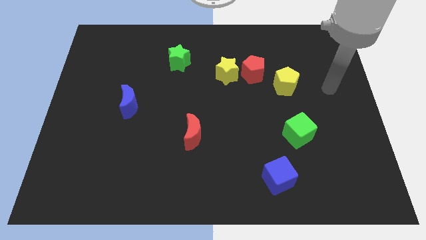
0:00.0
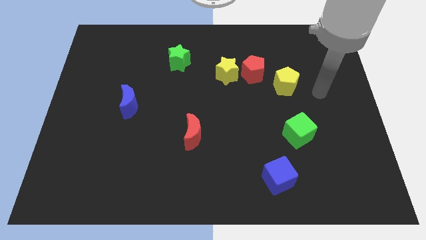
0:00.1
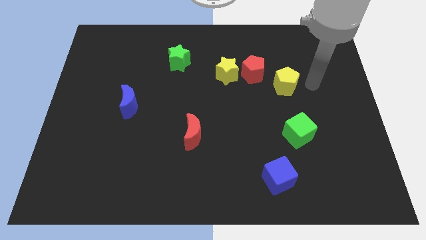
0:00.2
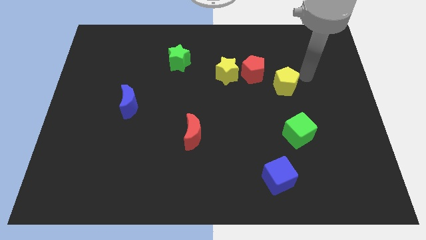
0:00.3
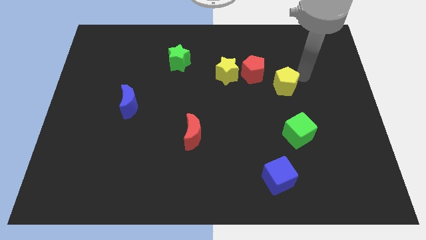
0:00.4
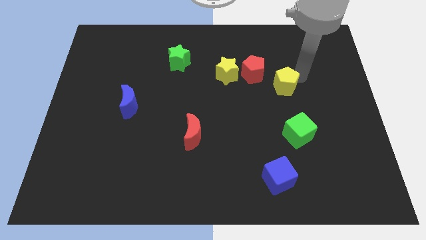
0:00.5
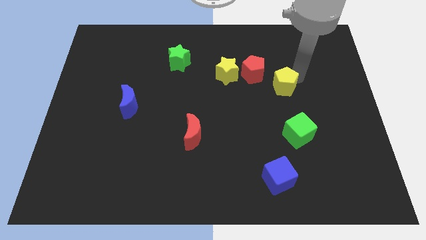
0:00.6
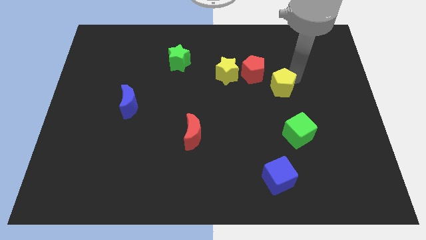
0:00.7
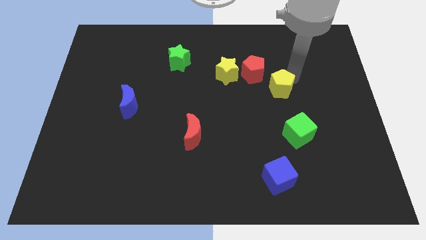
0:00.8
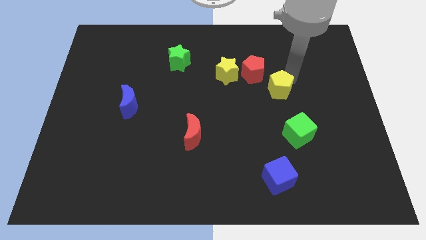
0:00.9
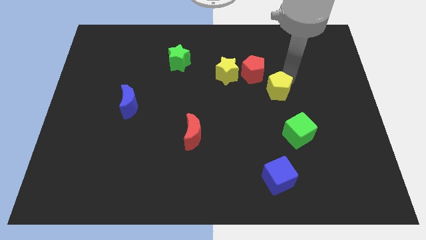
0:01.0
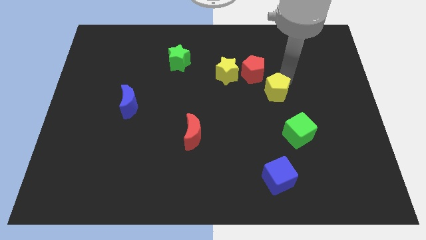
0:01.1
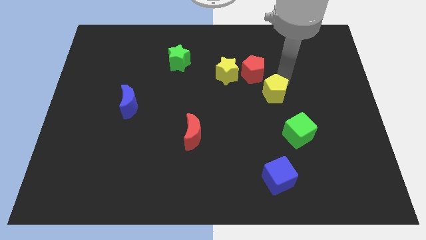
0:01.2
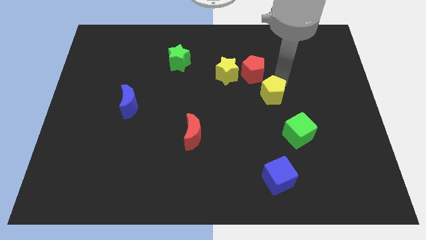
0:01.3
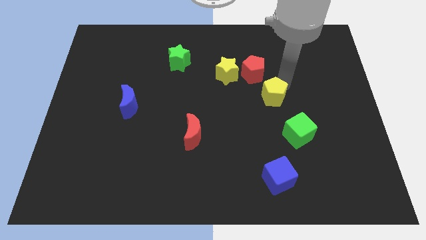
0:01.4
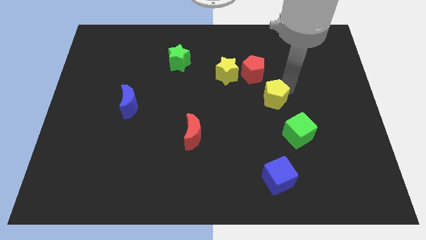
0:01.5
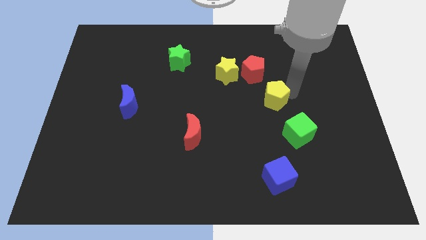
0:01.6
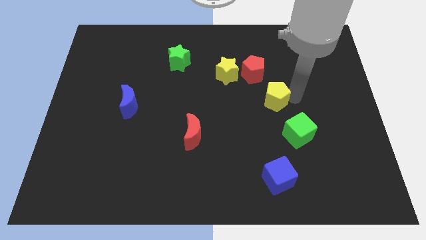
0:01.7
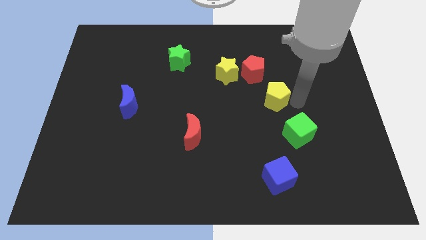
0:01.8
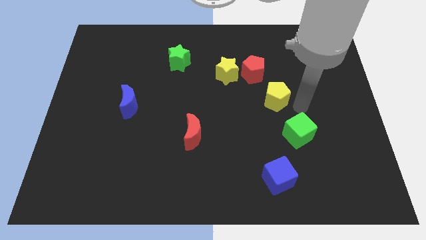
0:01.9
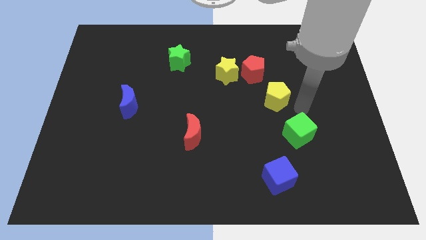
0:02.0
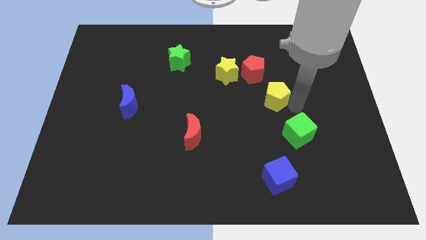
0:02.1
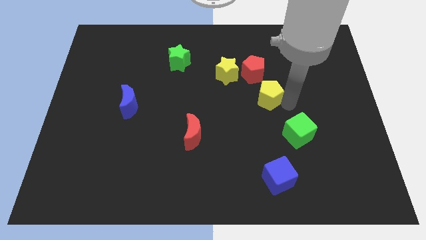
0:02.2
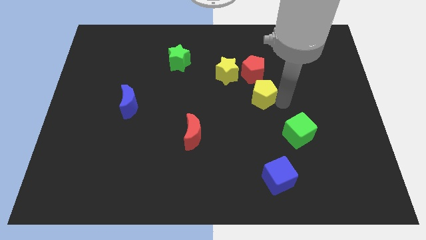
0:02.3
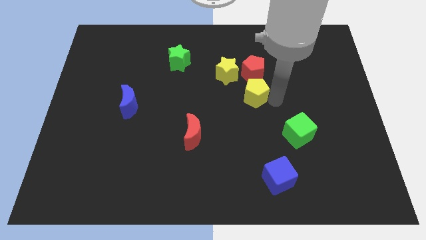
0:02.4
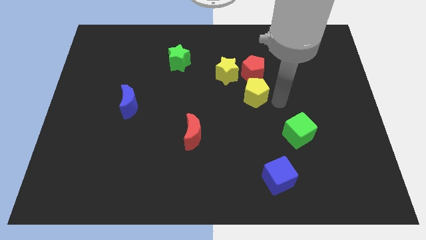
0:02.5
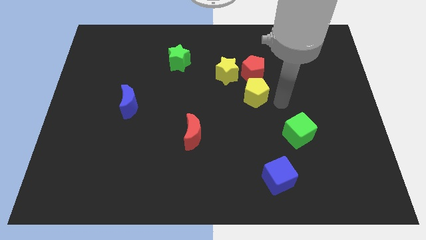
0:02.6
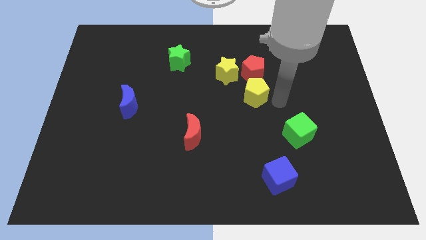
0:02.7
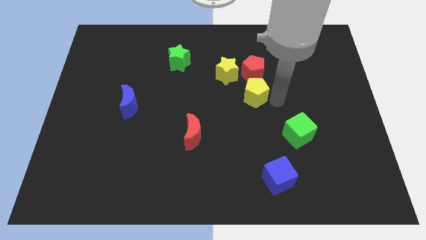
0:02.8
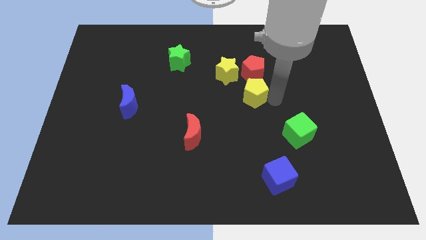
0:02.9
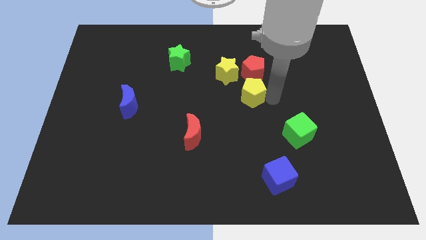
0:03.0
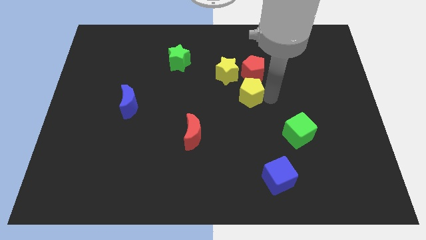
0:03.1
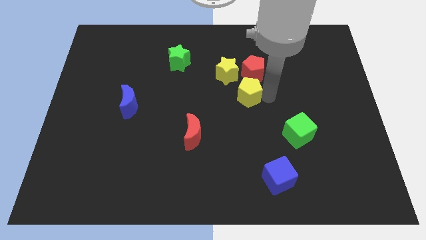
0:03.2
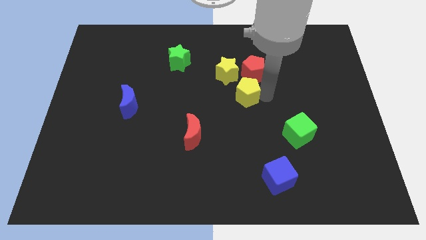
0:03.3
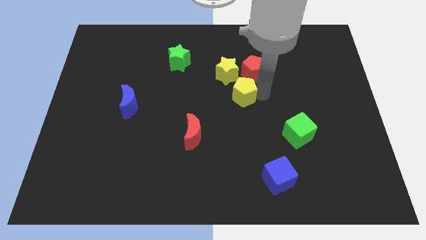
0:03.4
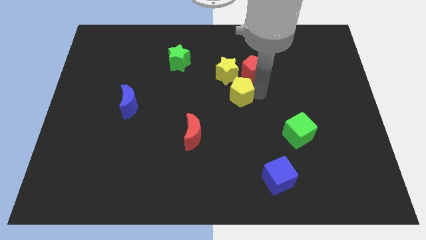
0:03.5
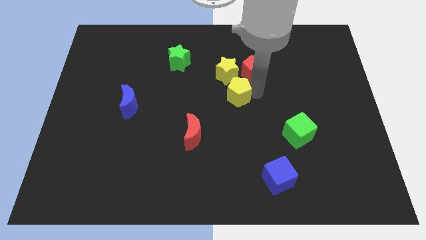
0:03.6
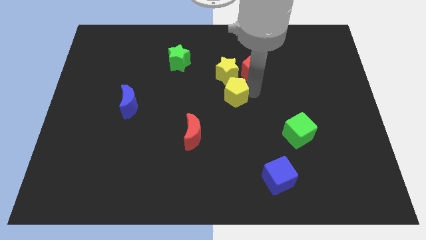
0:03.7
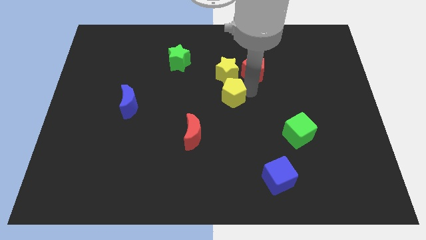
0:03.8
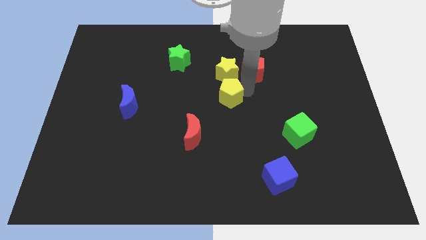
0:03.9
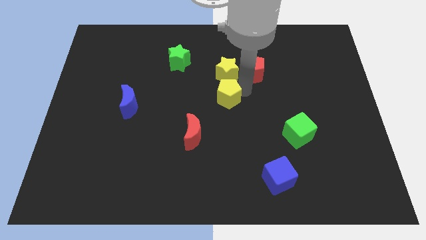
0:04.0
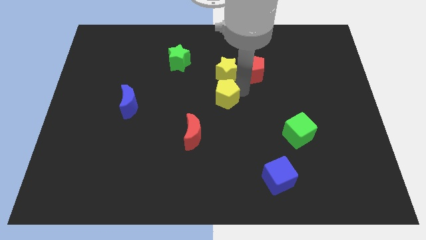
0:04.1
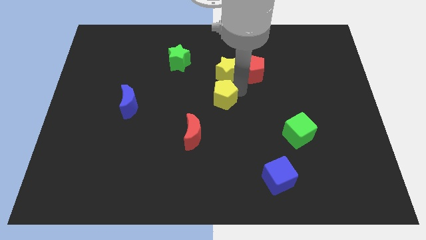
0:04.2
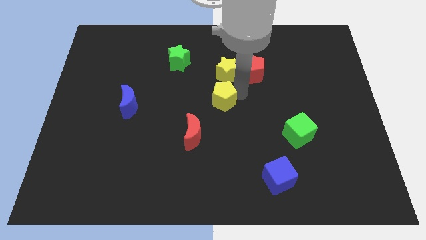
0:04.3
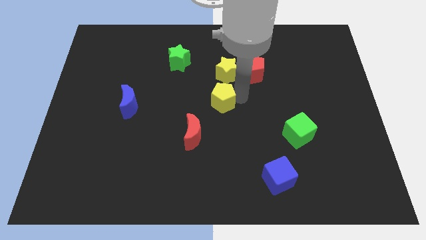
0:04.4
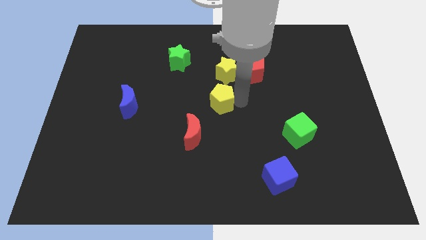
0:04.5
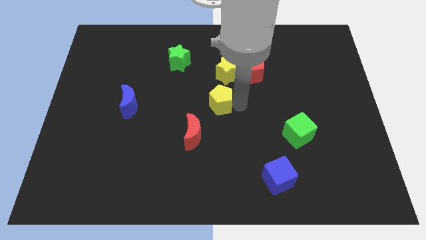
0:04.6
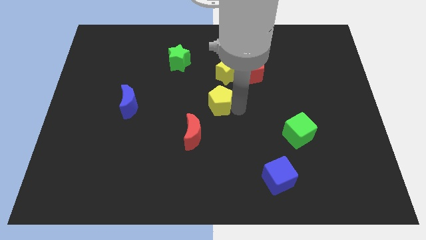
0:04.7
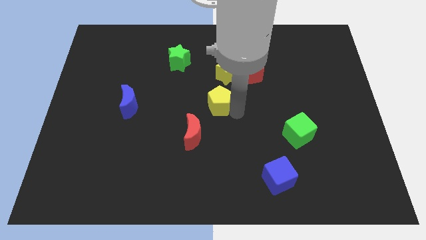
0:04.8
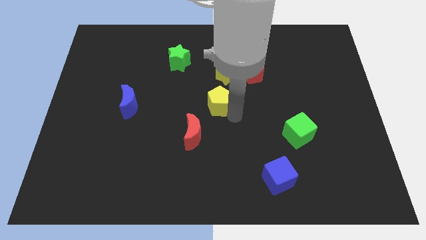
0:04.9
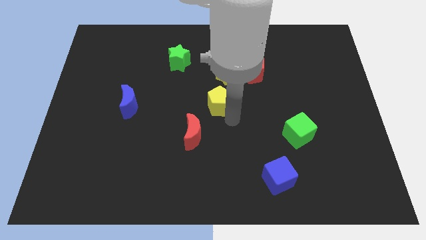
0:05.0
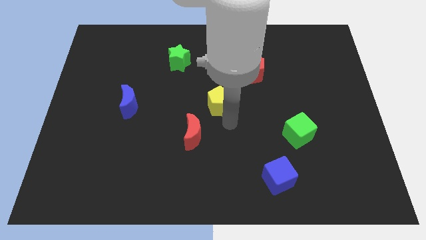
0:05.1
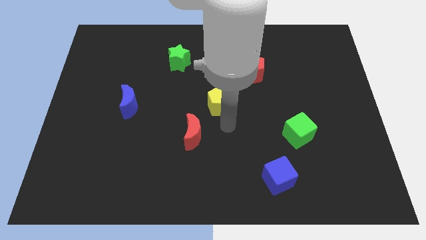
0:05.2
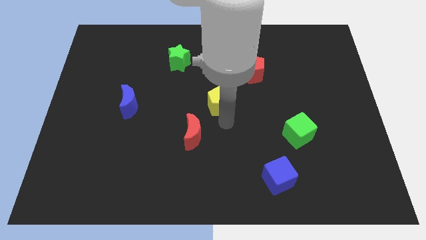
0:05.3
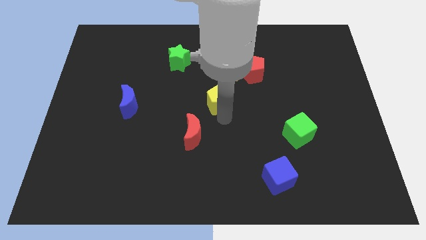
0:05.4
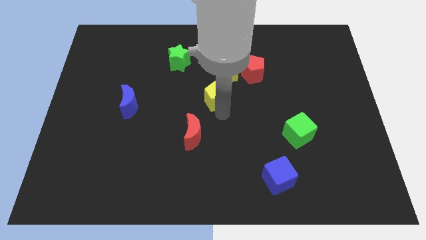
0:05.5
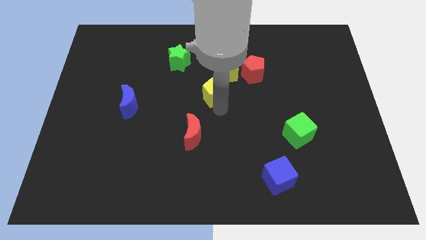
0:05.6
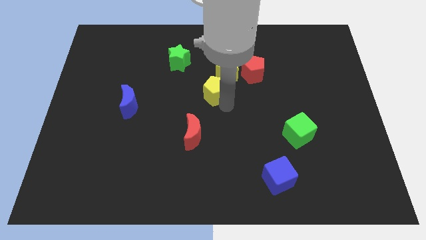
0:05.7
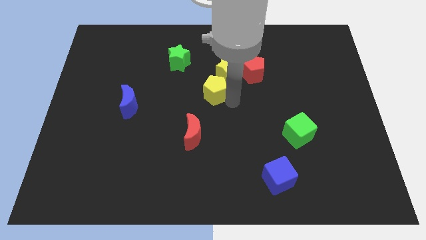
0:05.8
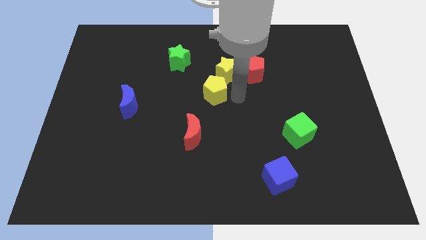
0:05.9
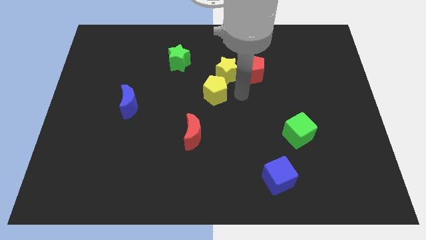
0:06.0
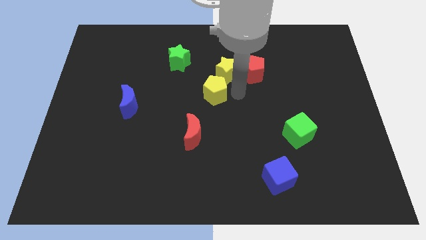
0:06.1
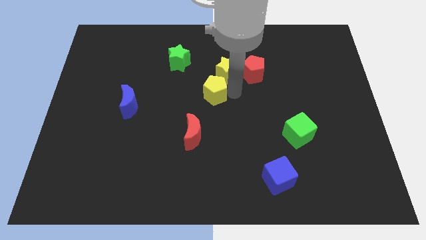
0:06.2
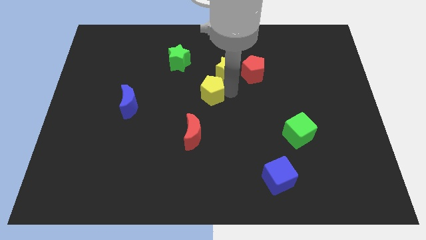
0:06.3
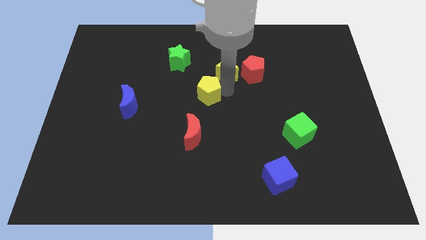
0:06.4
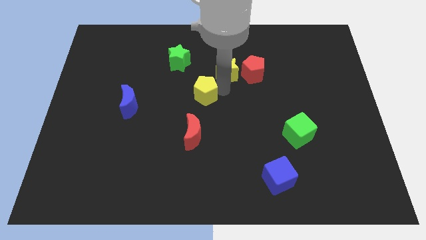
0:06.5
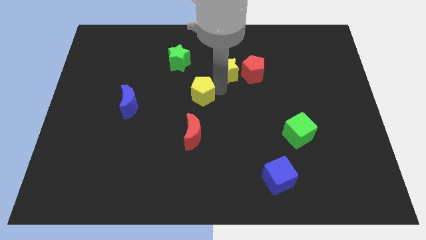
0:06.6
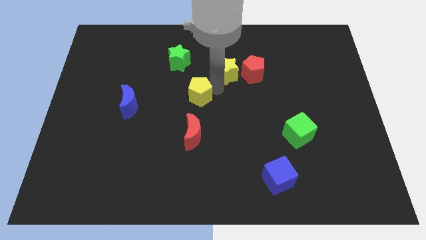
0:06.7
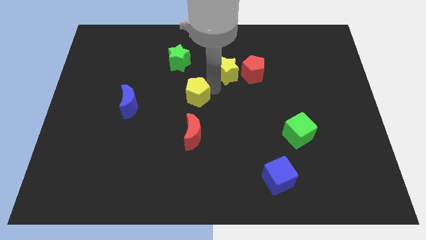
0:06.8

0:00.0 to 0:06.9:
slide the yellow pentagon below the green star

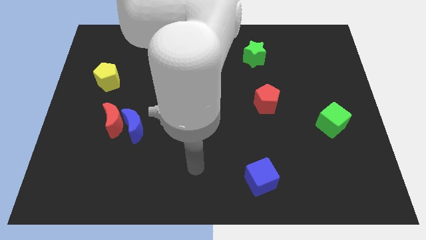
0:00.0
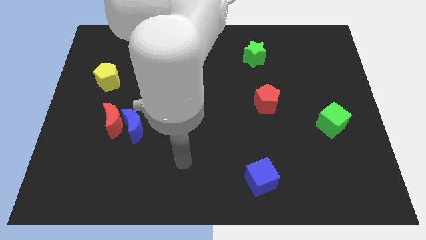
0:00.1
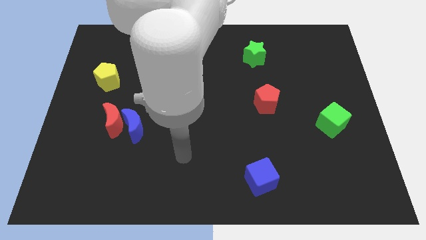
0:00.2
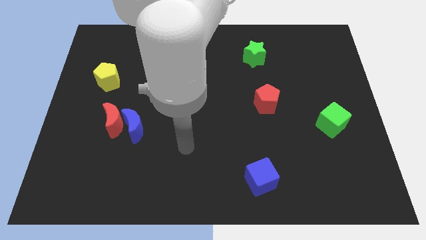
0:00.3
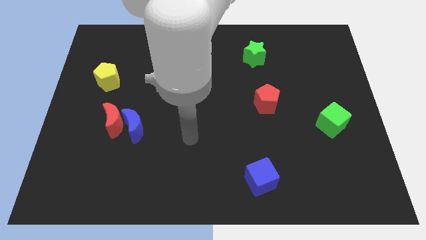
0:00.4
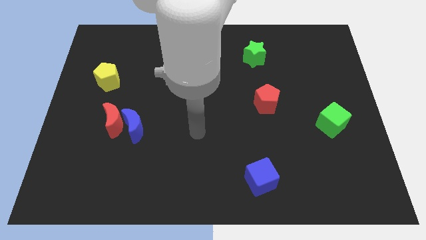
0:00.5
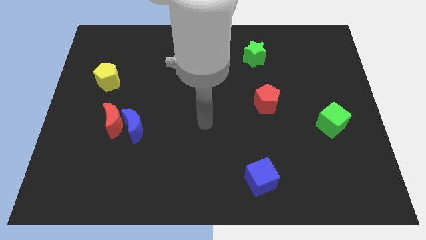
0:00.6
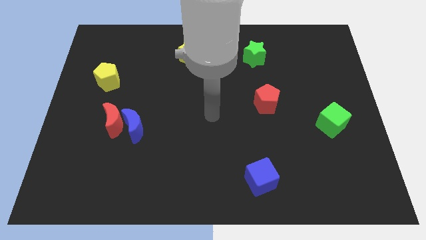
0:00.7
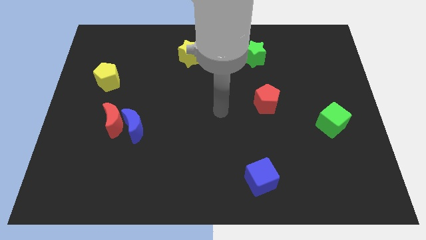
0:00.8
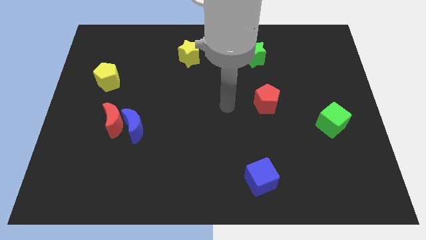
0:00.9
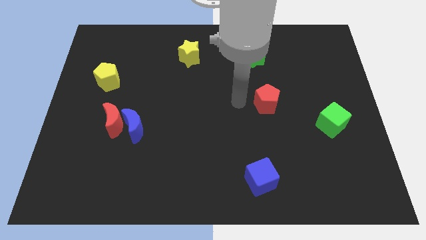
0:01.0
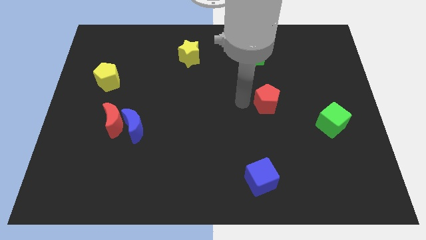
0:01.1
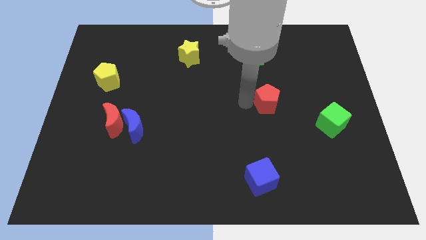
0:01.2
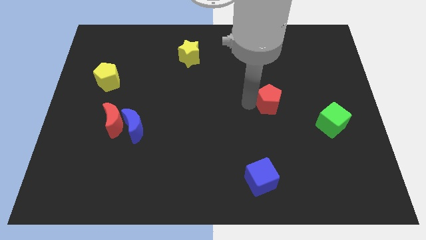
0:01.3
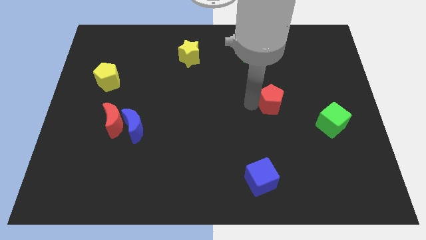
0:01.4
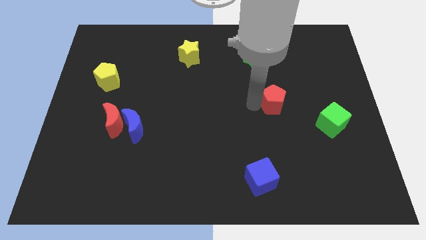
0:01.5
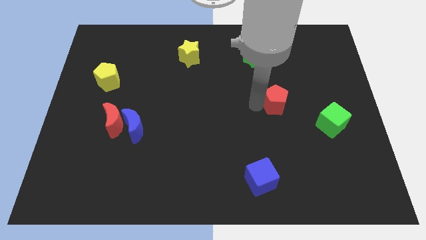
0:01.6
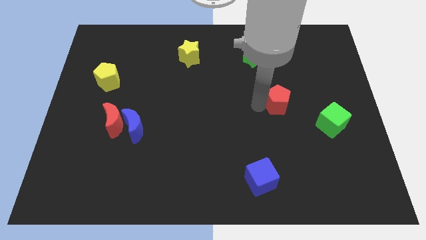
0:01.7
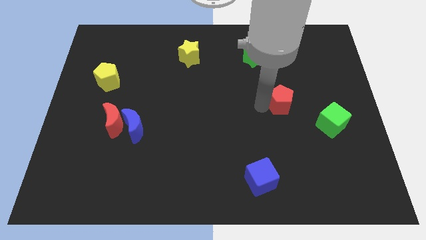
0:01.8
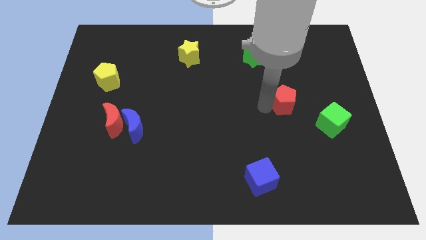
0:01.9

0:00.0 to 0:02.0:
push the red pentagon to the top left side of the green cube
